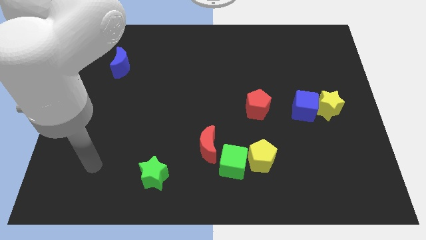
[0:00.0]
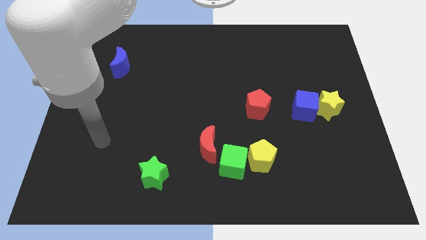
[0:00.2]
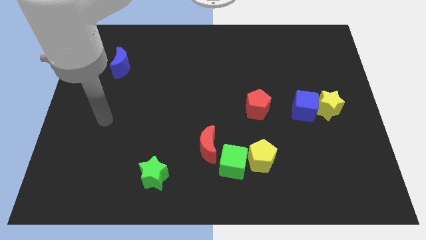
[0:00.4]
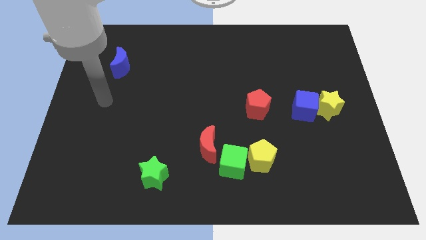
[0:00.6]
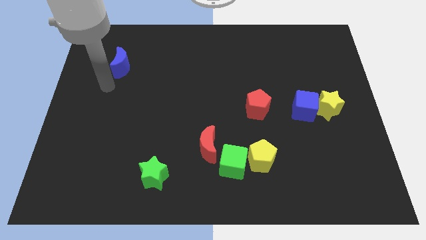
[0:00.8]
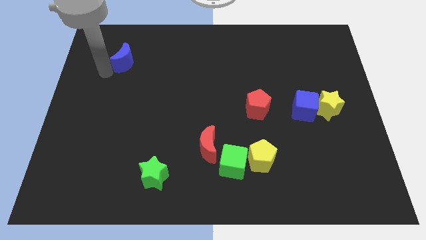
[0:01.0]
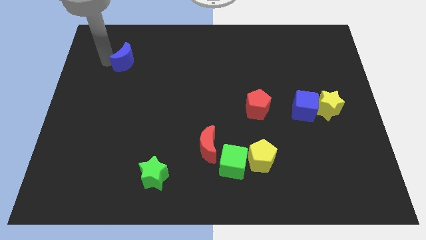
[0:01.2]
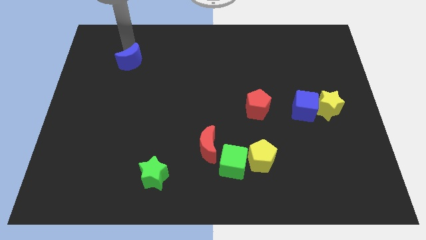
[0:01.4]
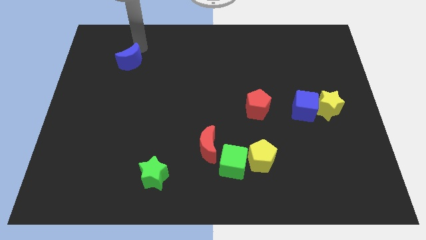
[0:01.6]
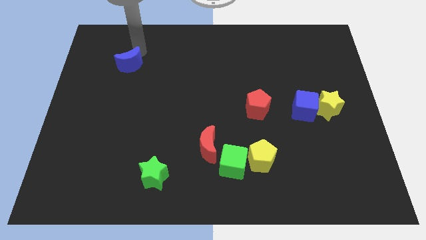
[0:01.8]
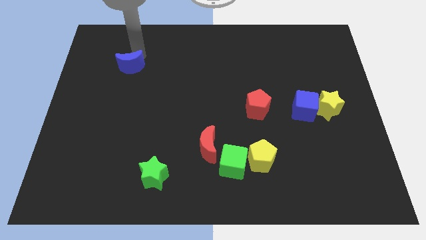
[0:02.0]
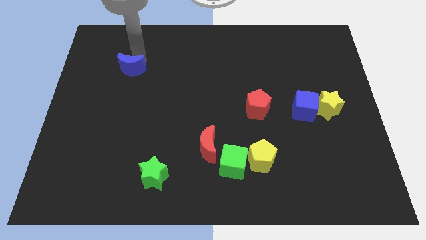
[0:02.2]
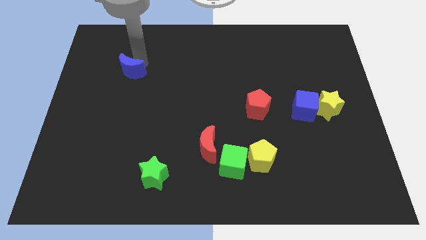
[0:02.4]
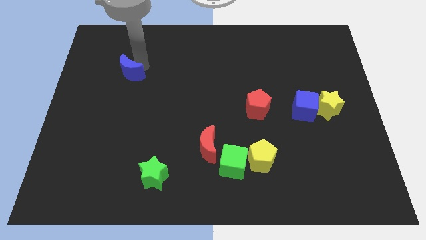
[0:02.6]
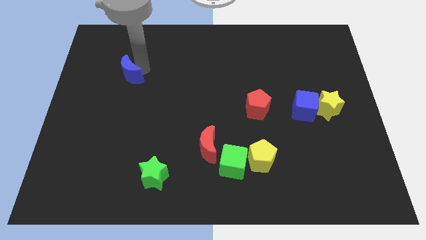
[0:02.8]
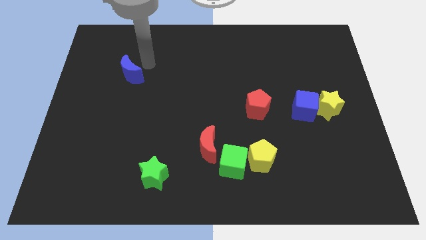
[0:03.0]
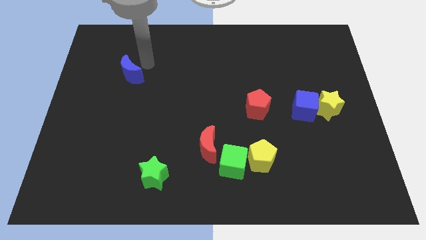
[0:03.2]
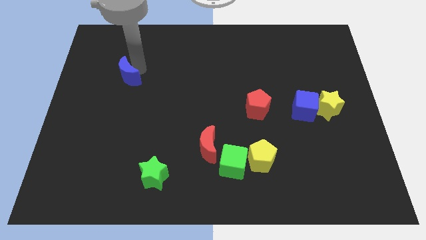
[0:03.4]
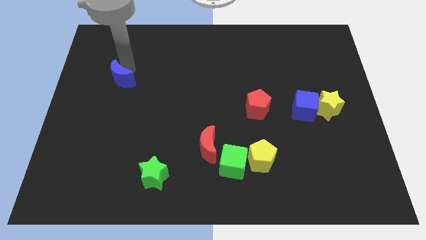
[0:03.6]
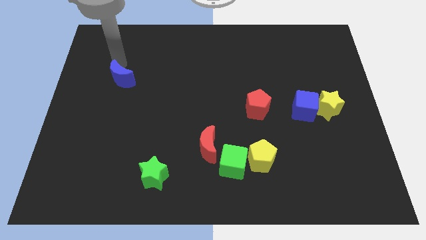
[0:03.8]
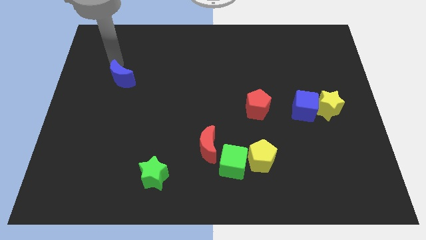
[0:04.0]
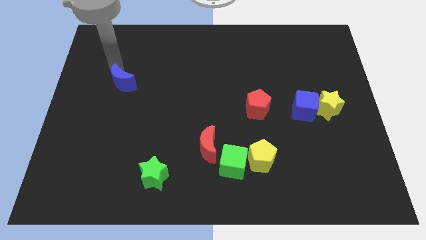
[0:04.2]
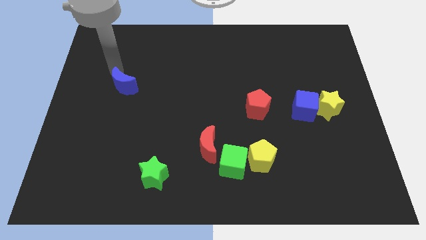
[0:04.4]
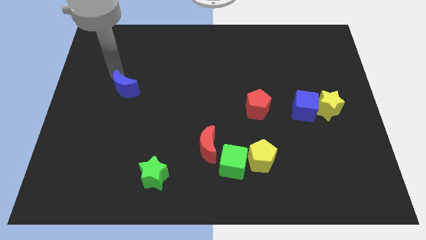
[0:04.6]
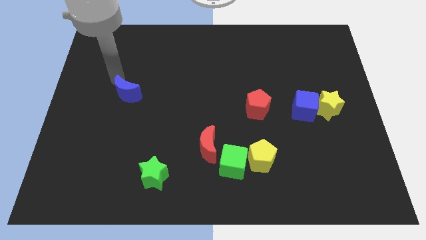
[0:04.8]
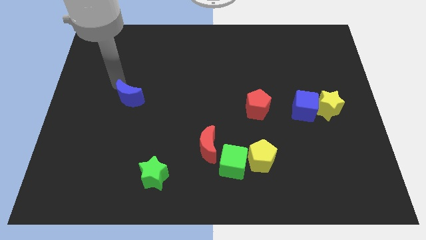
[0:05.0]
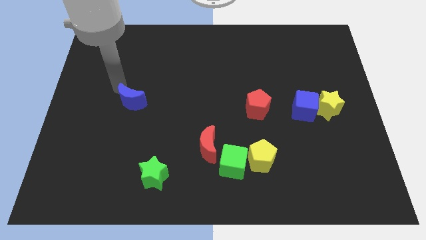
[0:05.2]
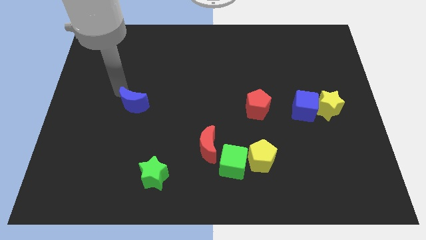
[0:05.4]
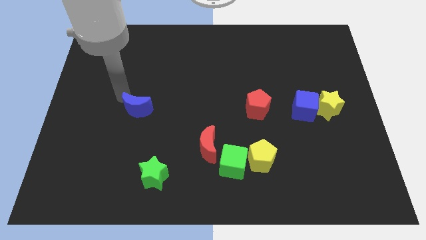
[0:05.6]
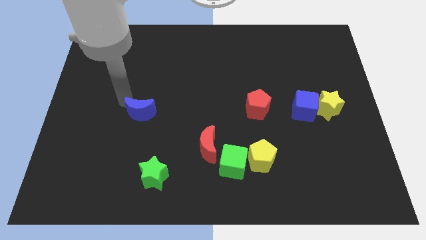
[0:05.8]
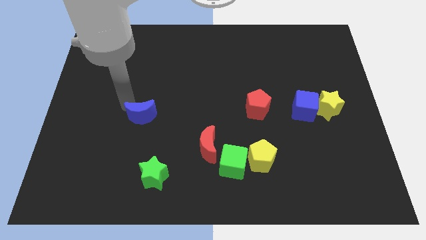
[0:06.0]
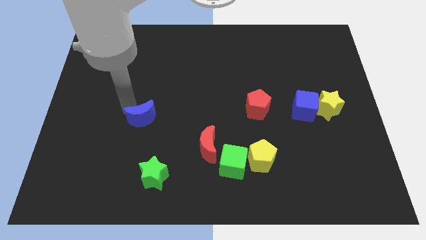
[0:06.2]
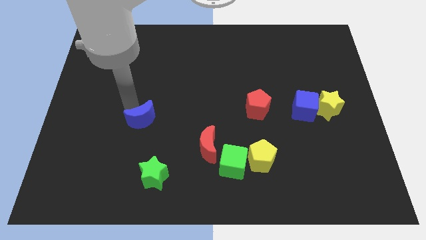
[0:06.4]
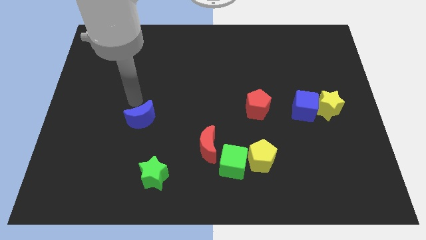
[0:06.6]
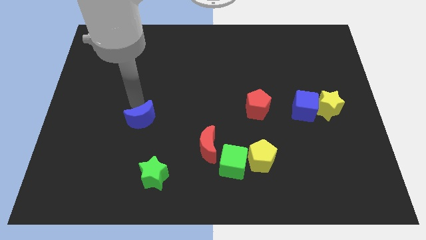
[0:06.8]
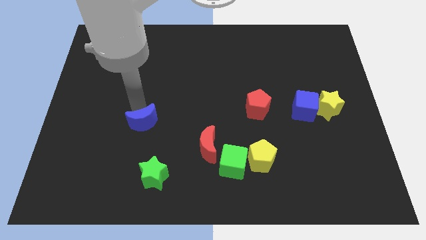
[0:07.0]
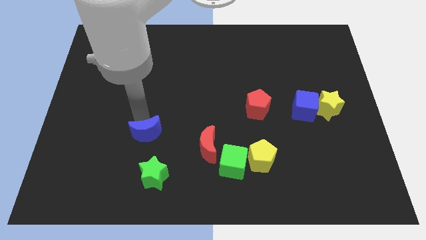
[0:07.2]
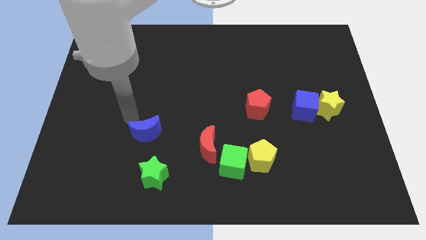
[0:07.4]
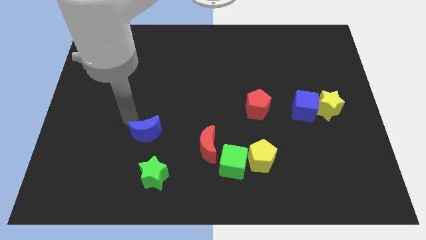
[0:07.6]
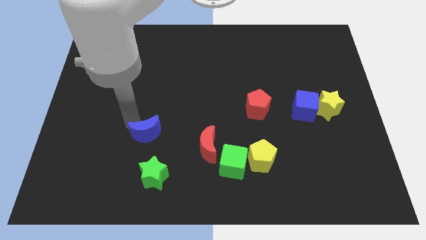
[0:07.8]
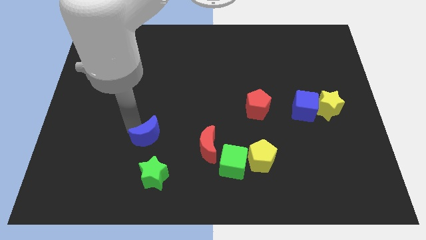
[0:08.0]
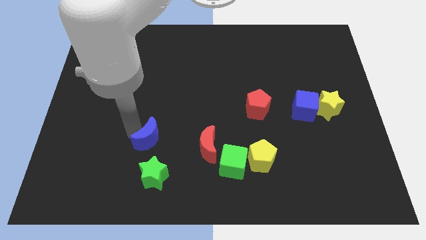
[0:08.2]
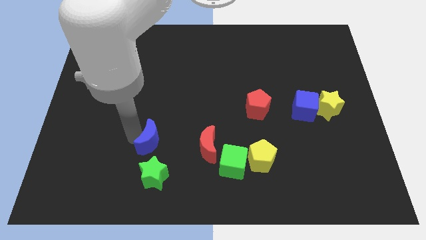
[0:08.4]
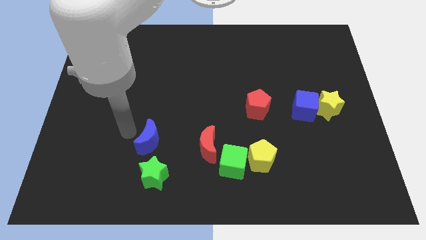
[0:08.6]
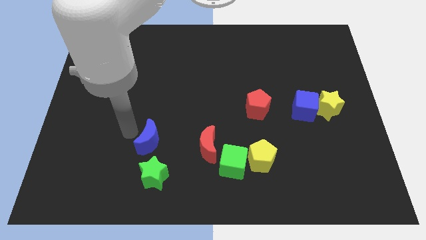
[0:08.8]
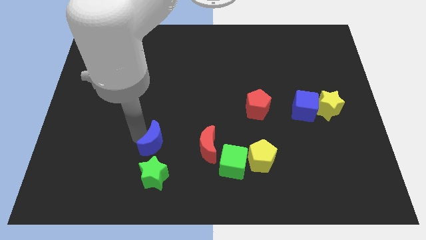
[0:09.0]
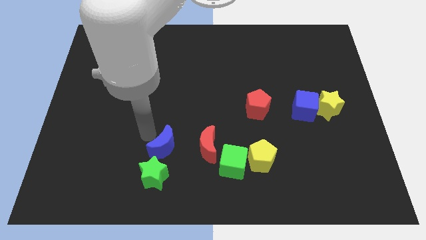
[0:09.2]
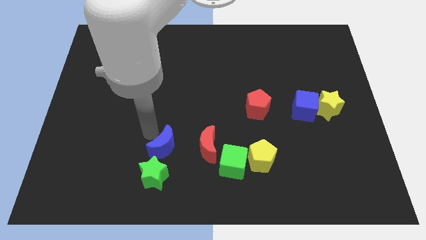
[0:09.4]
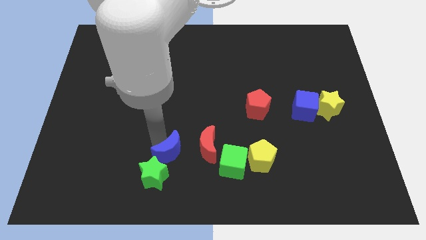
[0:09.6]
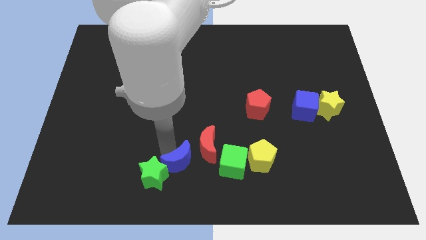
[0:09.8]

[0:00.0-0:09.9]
put the blue moon to the bottom

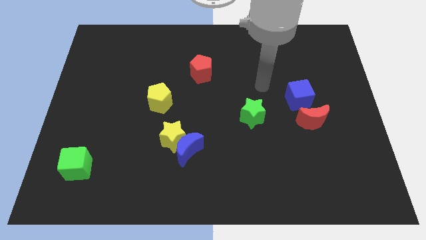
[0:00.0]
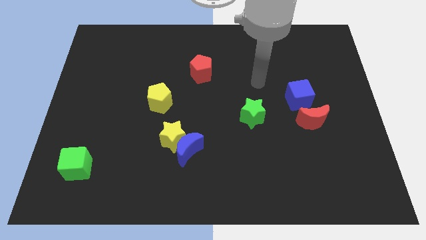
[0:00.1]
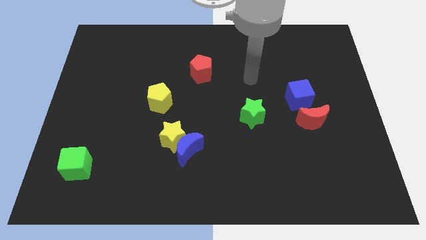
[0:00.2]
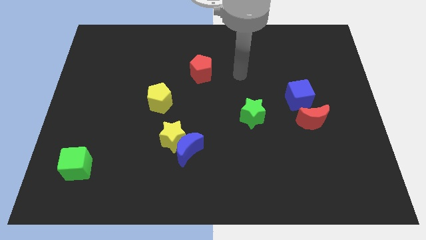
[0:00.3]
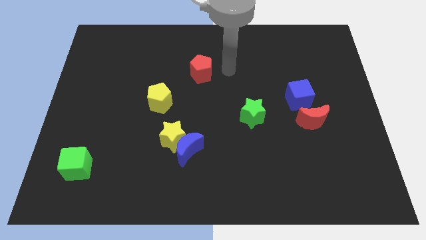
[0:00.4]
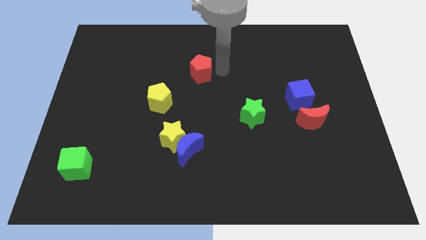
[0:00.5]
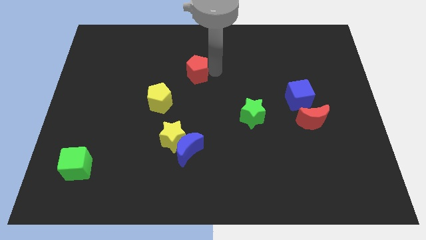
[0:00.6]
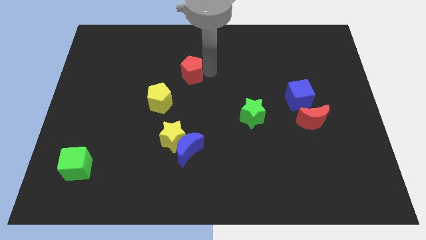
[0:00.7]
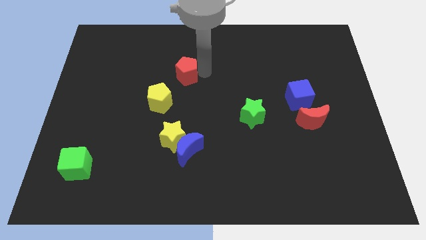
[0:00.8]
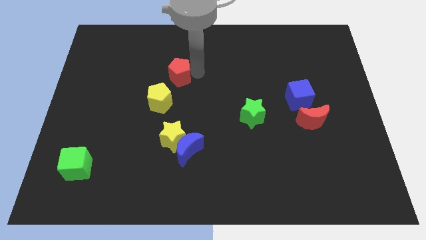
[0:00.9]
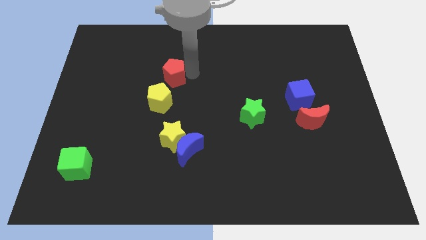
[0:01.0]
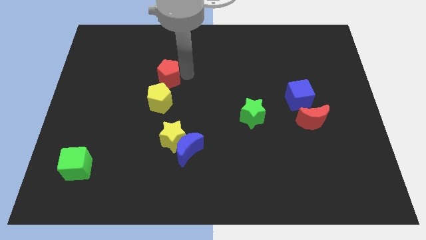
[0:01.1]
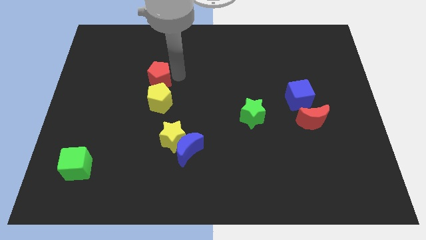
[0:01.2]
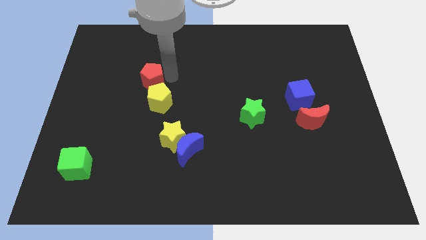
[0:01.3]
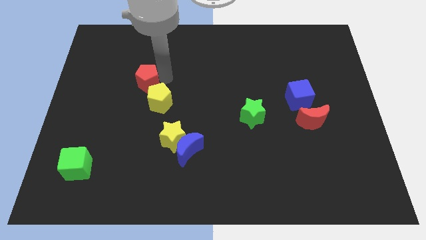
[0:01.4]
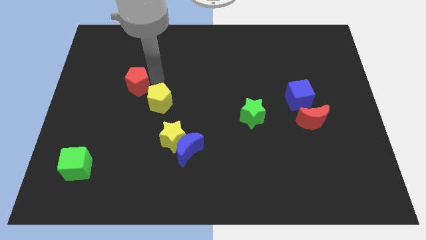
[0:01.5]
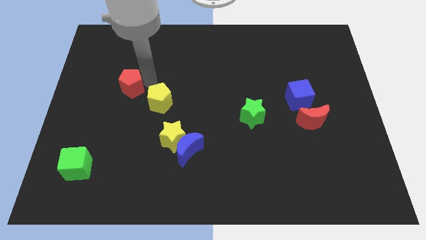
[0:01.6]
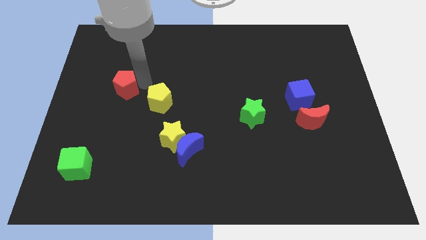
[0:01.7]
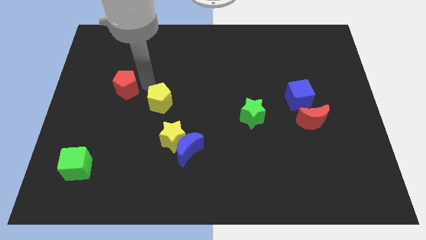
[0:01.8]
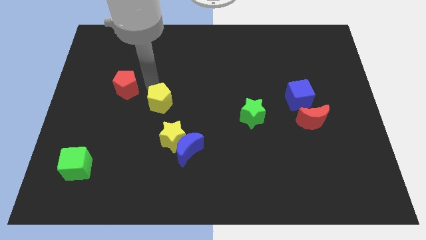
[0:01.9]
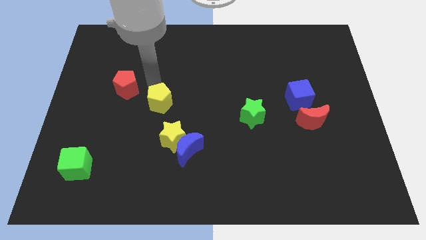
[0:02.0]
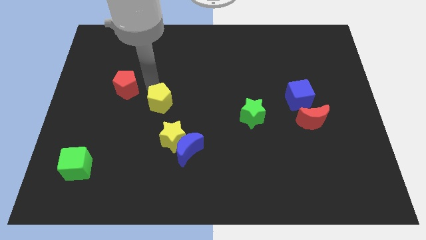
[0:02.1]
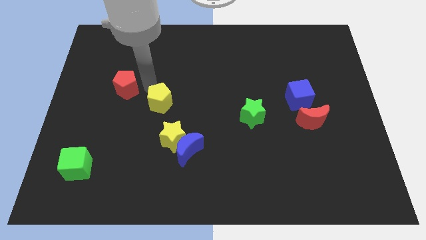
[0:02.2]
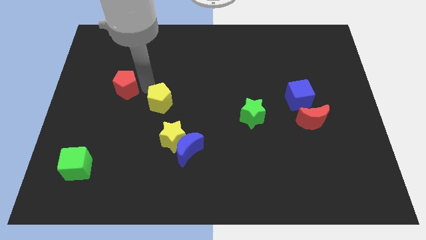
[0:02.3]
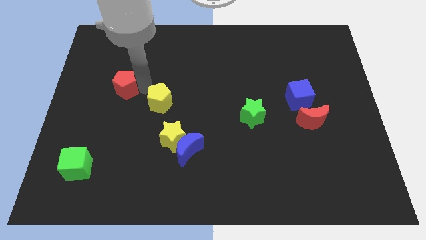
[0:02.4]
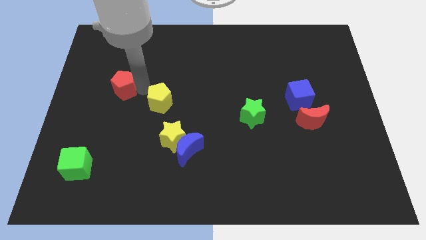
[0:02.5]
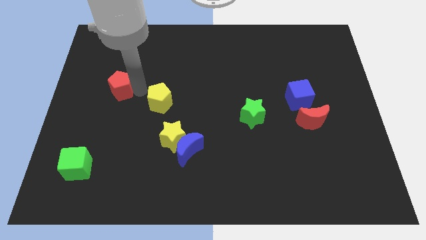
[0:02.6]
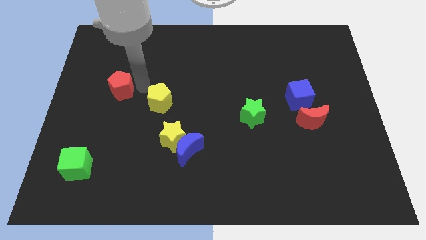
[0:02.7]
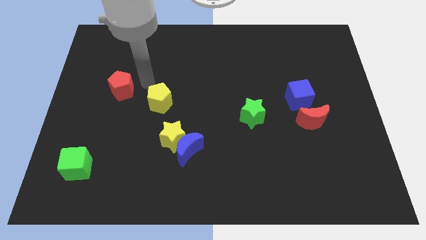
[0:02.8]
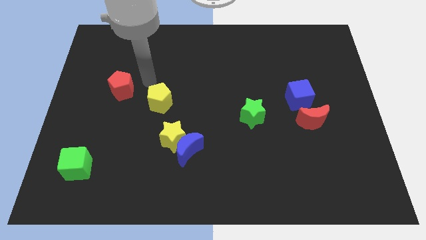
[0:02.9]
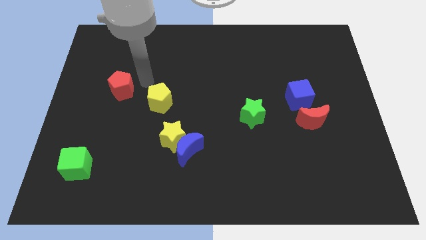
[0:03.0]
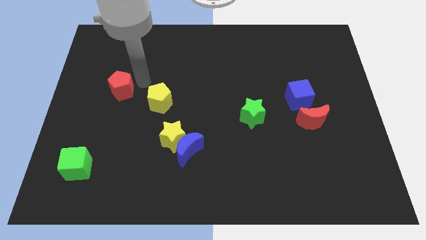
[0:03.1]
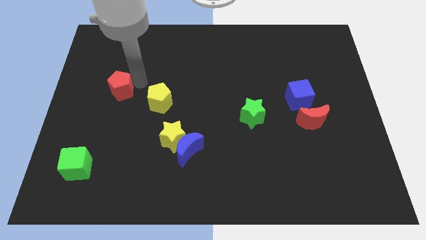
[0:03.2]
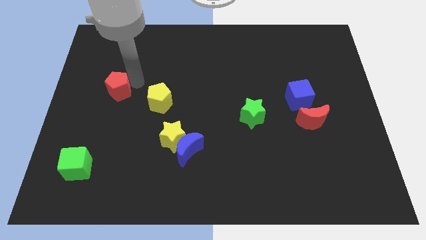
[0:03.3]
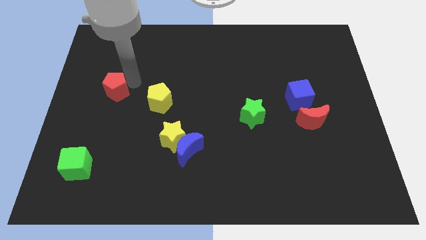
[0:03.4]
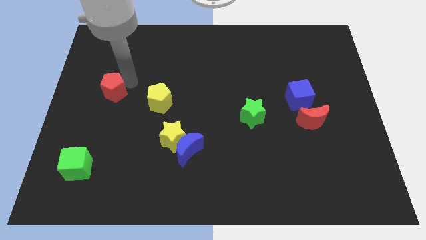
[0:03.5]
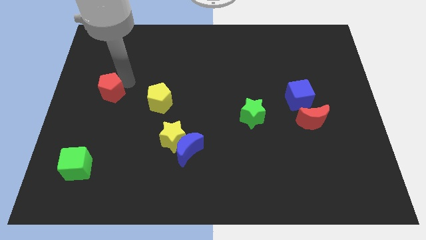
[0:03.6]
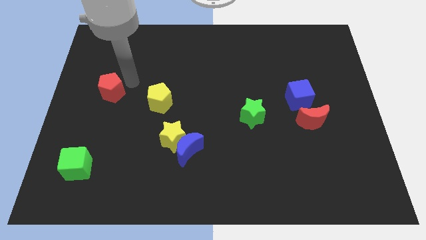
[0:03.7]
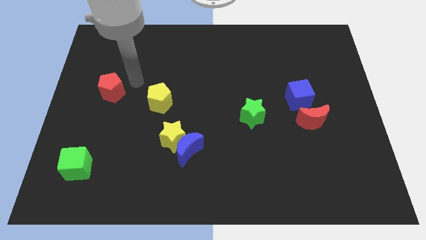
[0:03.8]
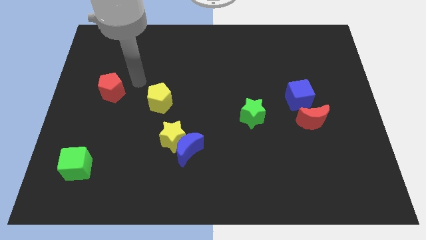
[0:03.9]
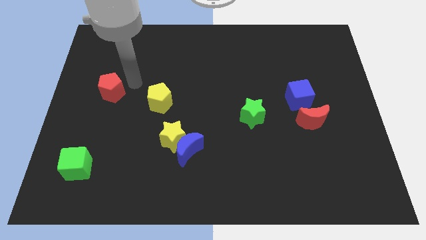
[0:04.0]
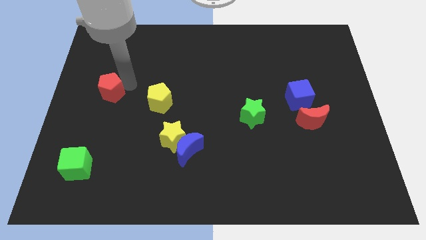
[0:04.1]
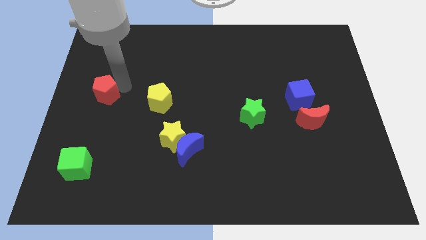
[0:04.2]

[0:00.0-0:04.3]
push the red pentagon to the left side
